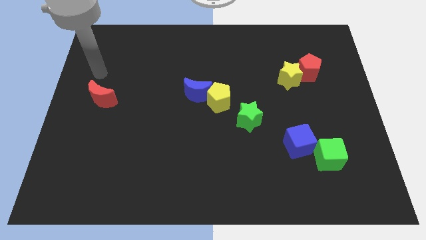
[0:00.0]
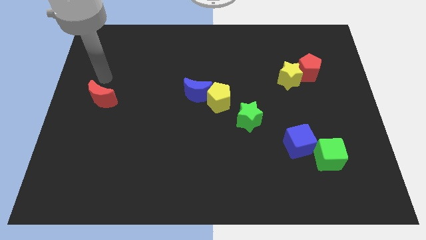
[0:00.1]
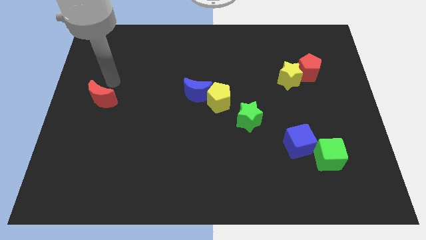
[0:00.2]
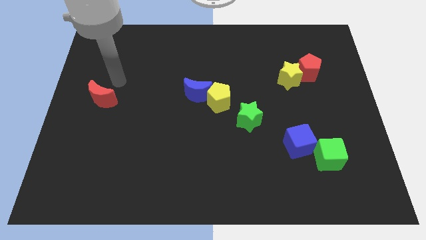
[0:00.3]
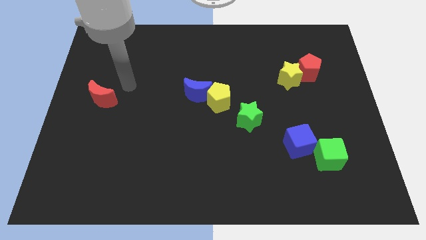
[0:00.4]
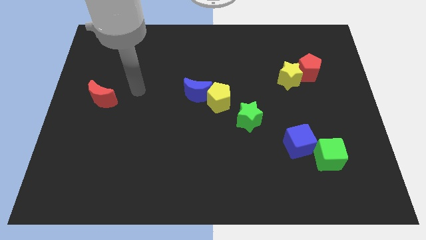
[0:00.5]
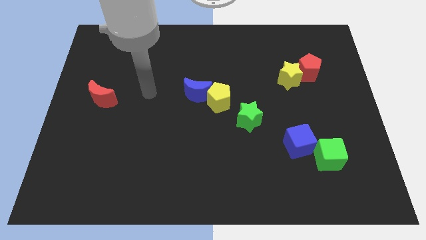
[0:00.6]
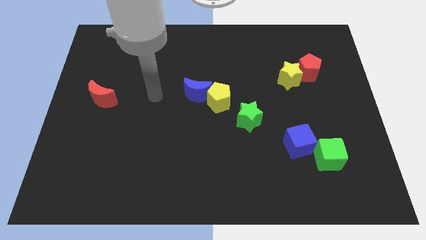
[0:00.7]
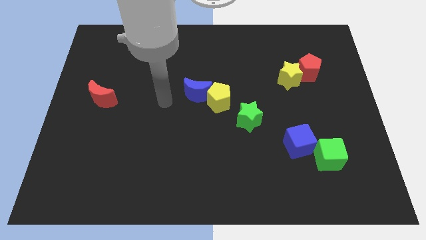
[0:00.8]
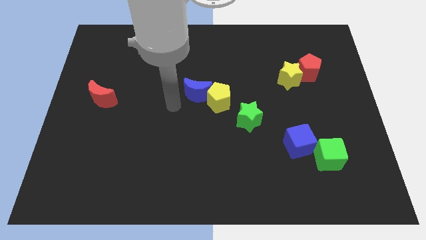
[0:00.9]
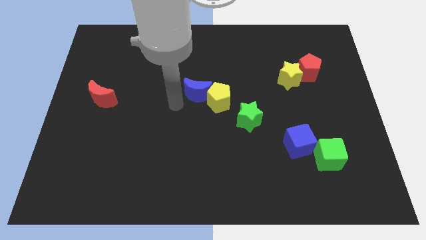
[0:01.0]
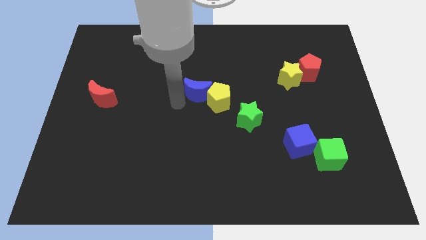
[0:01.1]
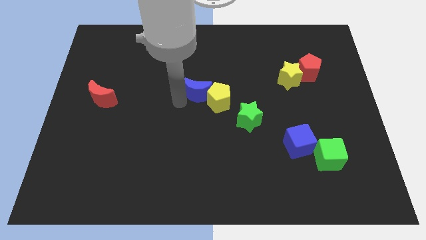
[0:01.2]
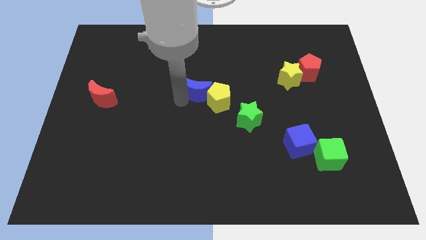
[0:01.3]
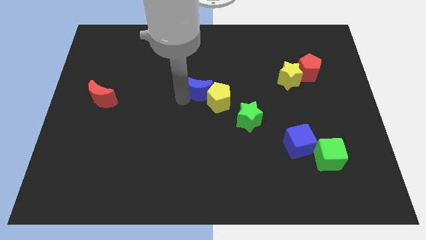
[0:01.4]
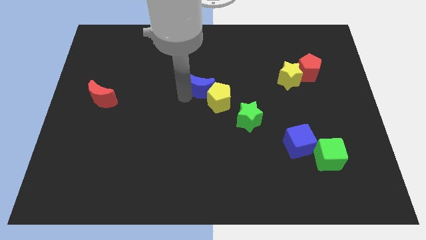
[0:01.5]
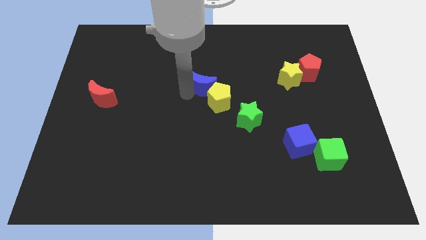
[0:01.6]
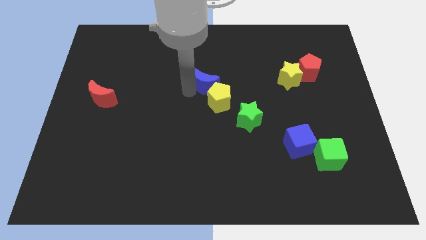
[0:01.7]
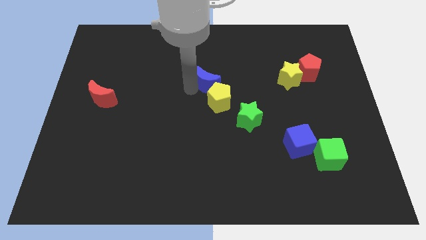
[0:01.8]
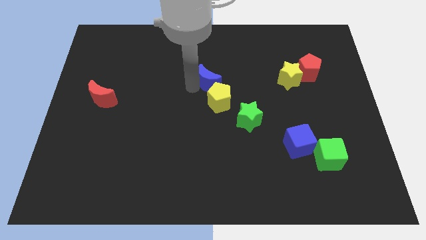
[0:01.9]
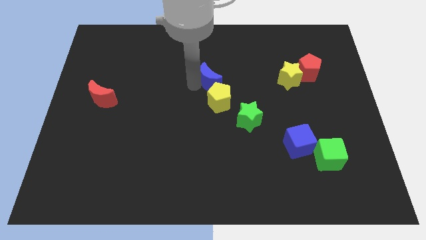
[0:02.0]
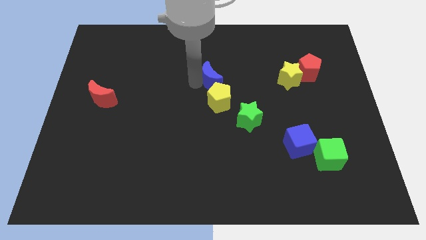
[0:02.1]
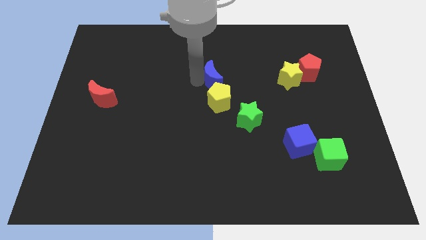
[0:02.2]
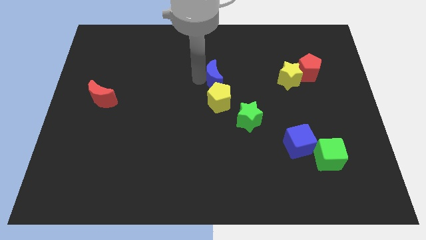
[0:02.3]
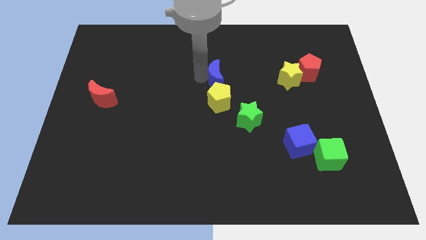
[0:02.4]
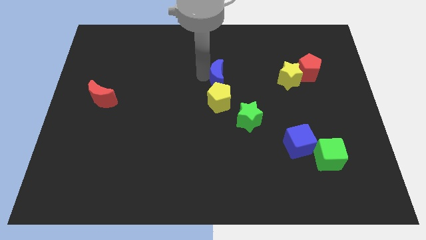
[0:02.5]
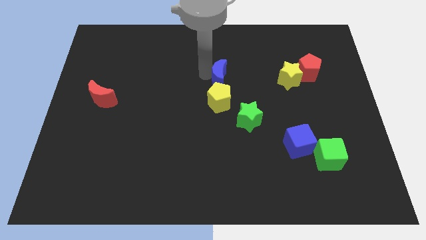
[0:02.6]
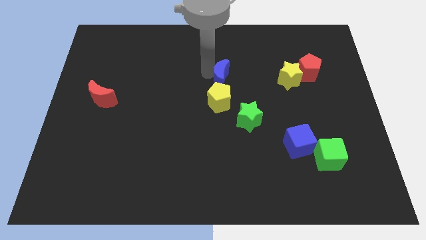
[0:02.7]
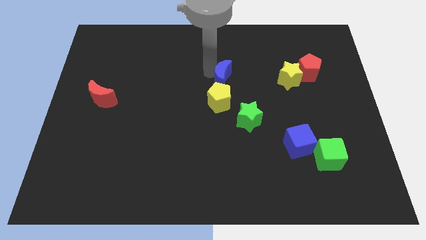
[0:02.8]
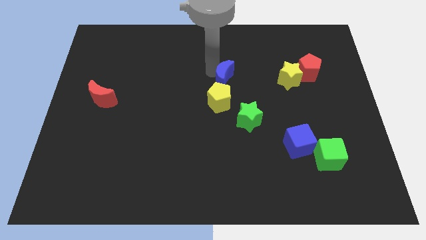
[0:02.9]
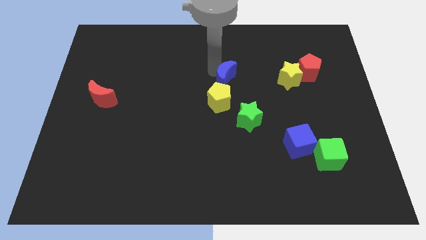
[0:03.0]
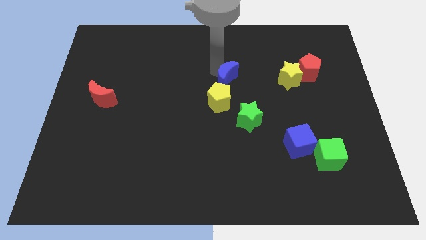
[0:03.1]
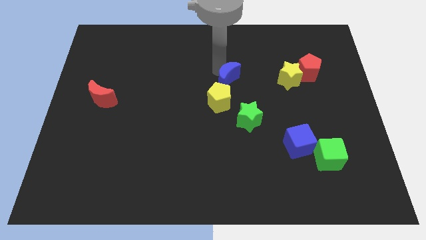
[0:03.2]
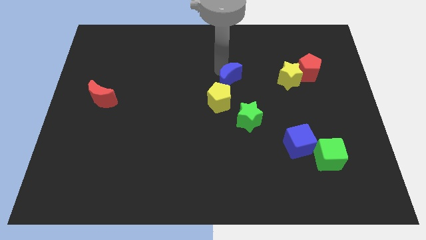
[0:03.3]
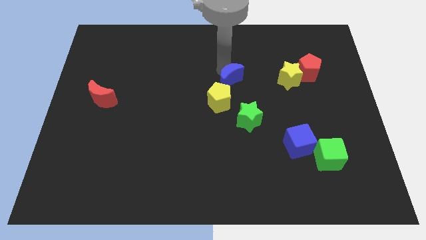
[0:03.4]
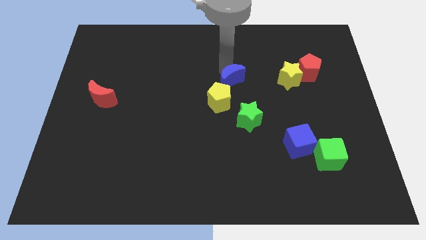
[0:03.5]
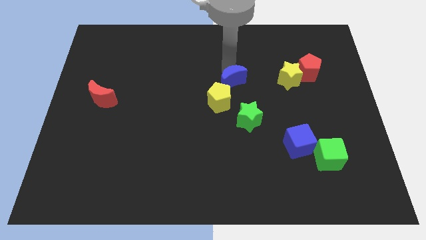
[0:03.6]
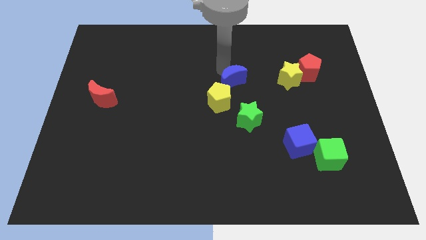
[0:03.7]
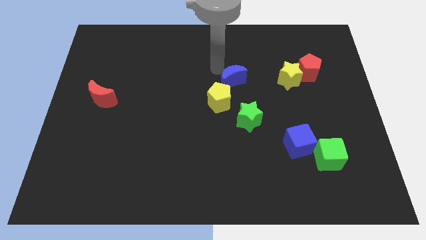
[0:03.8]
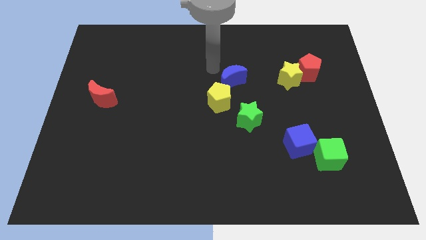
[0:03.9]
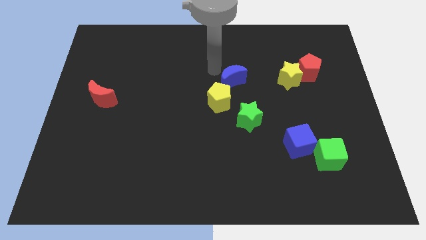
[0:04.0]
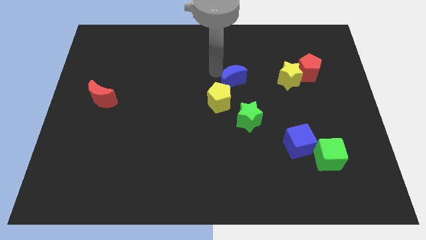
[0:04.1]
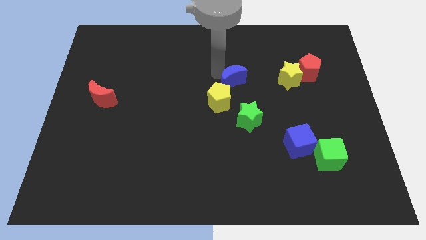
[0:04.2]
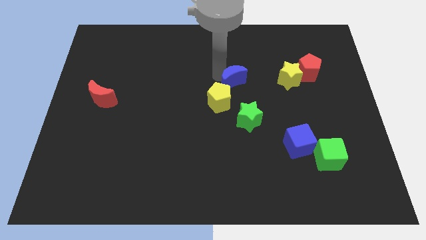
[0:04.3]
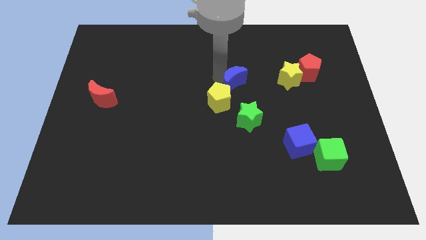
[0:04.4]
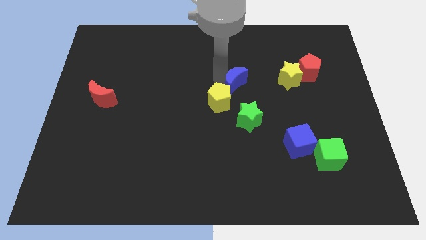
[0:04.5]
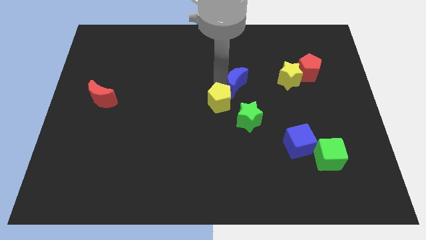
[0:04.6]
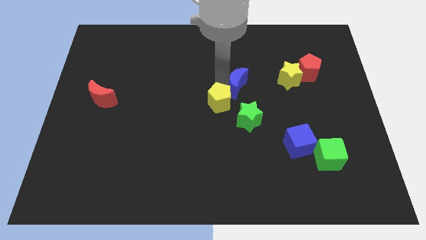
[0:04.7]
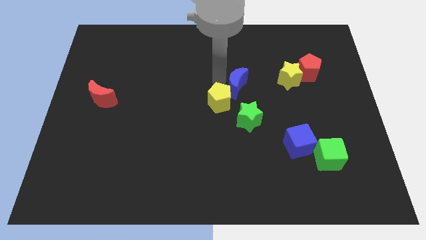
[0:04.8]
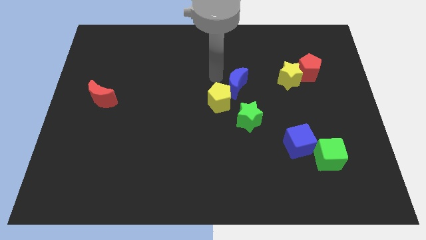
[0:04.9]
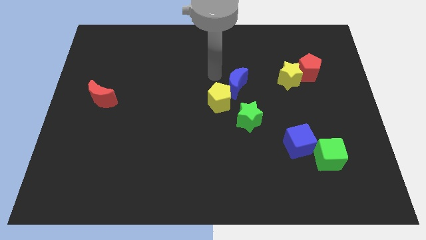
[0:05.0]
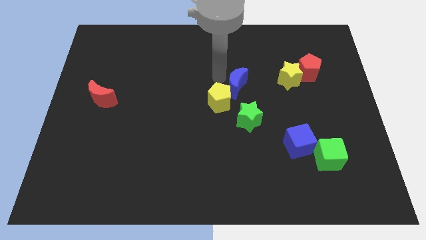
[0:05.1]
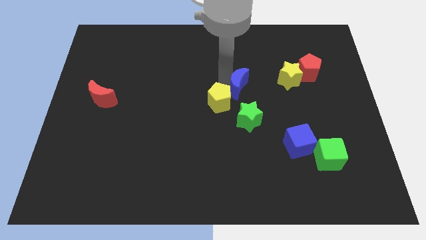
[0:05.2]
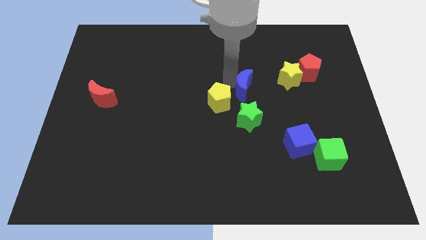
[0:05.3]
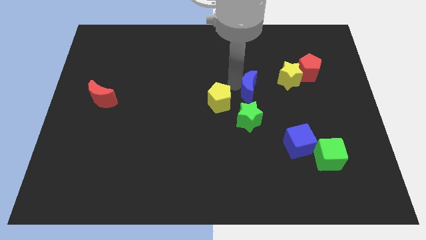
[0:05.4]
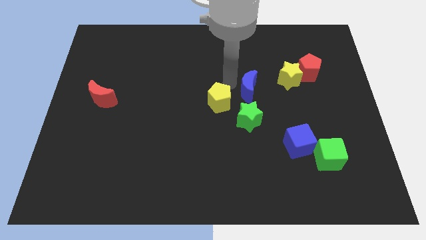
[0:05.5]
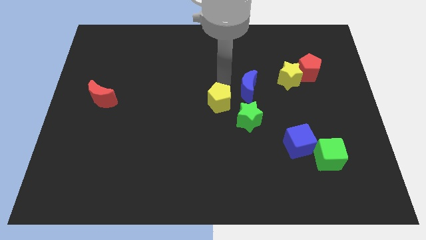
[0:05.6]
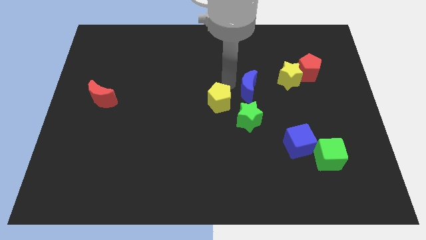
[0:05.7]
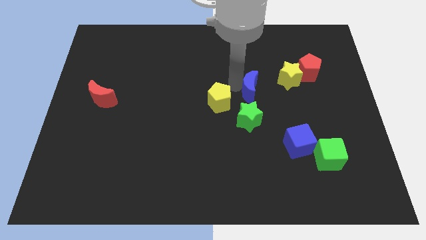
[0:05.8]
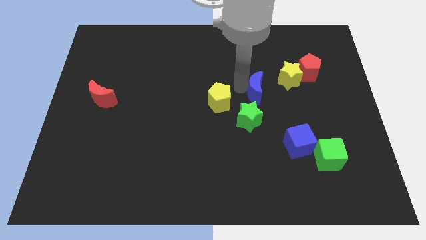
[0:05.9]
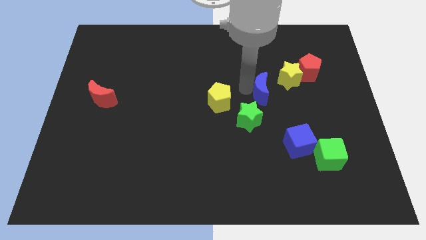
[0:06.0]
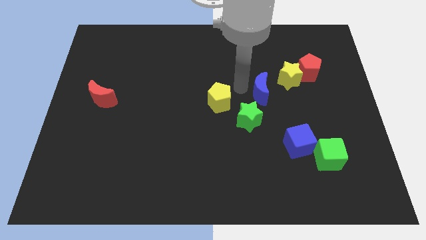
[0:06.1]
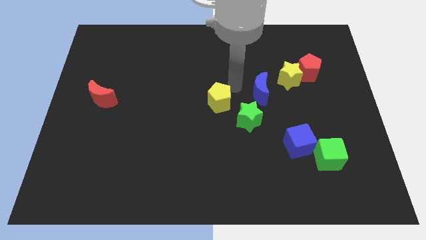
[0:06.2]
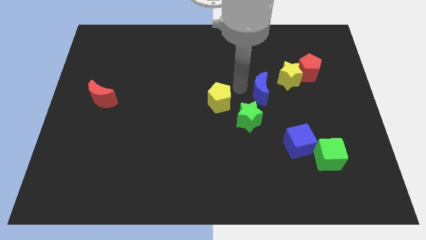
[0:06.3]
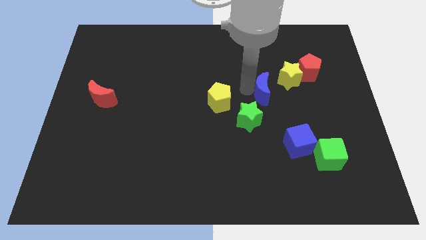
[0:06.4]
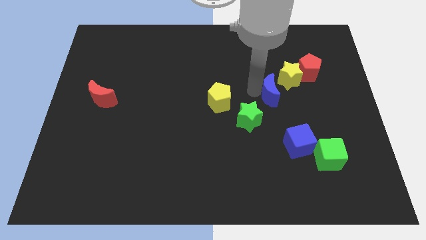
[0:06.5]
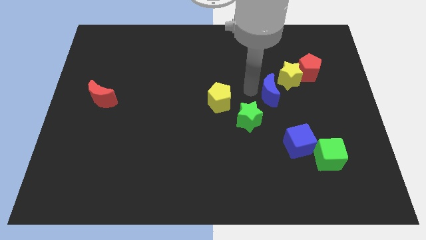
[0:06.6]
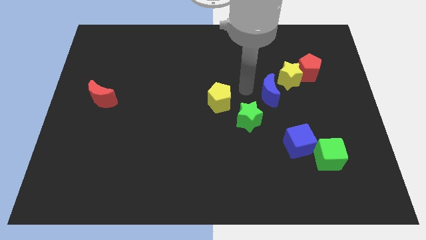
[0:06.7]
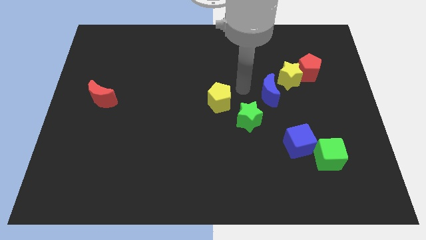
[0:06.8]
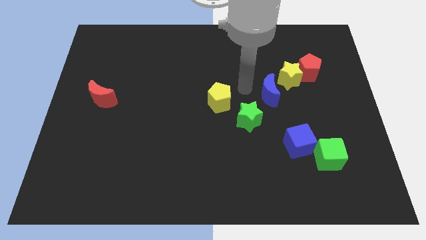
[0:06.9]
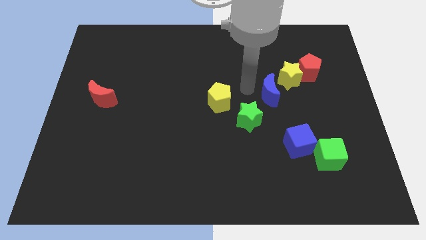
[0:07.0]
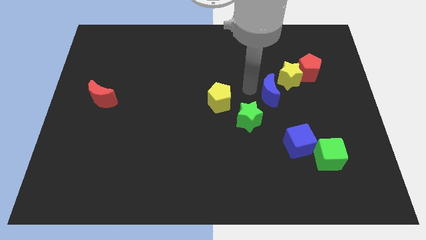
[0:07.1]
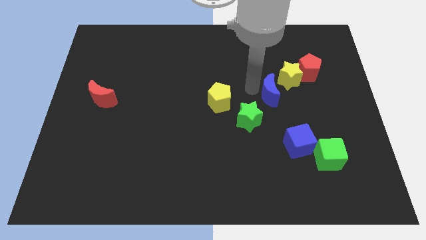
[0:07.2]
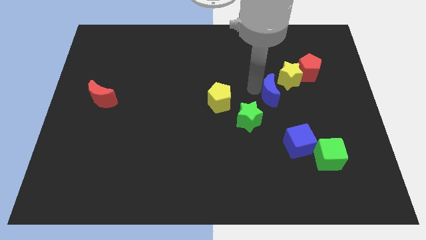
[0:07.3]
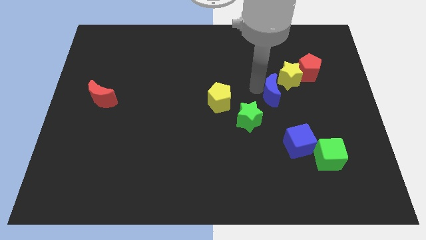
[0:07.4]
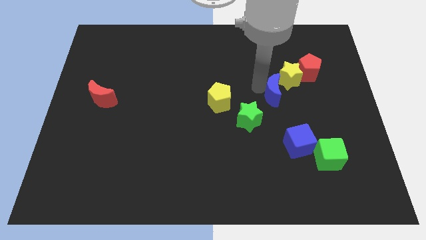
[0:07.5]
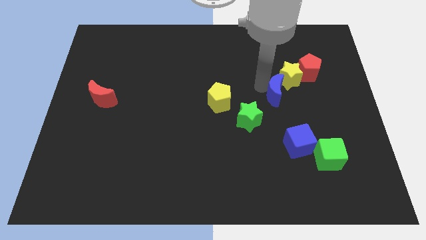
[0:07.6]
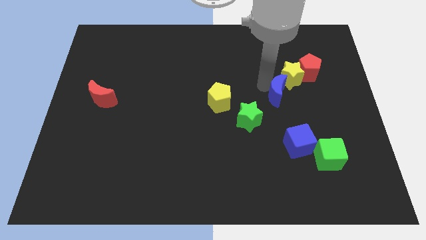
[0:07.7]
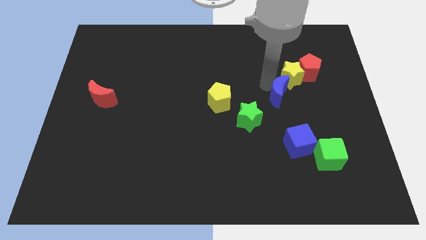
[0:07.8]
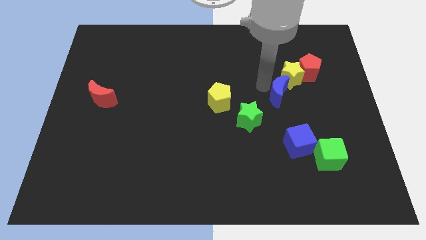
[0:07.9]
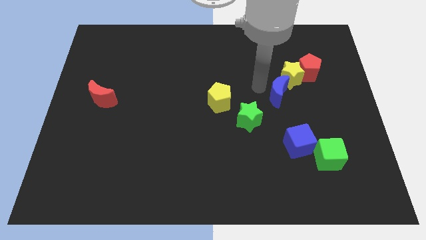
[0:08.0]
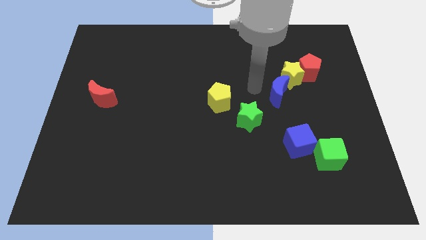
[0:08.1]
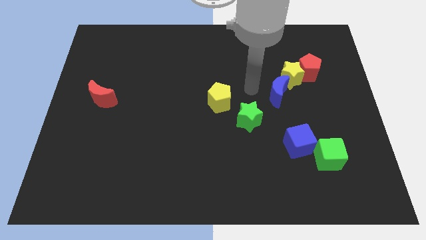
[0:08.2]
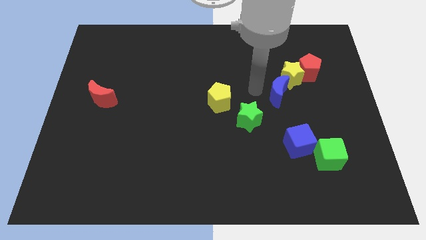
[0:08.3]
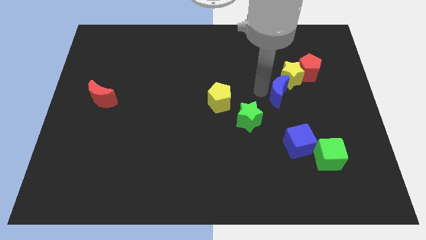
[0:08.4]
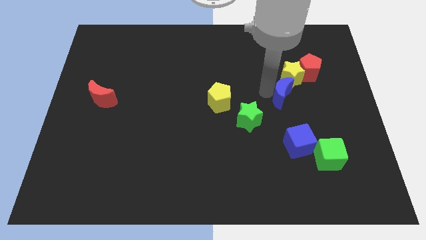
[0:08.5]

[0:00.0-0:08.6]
push the blue moon to the right
